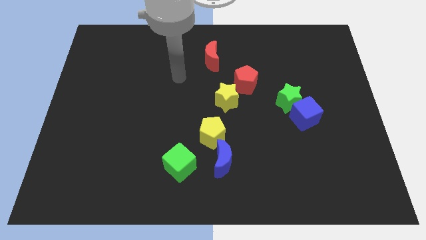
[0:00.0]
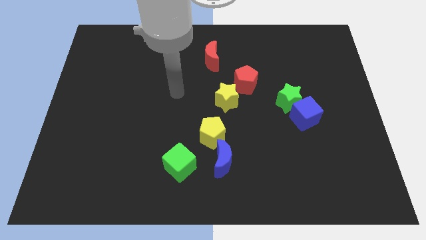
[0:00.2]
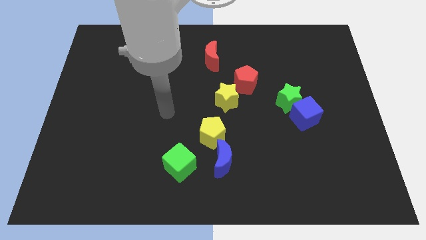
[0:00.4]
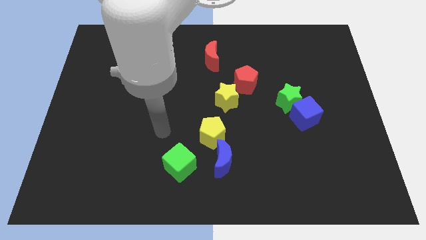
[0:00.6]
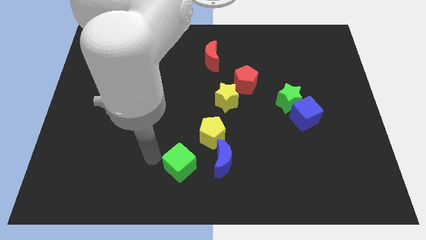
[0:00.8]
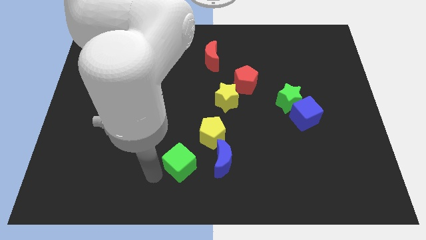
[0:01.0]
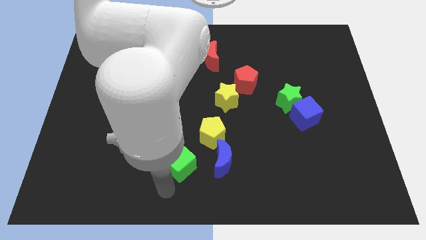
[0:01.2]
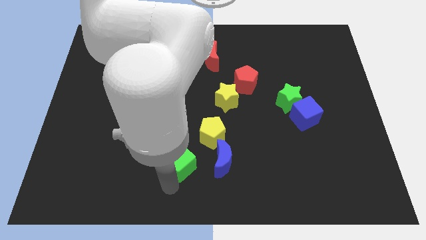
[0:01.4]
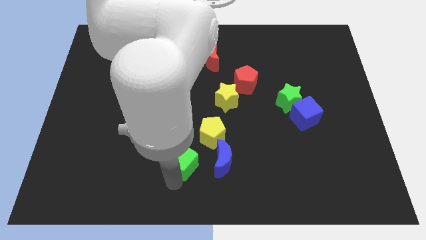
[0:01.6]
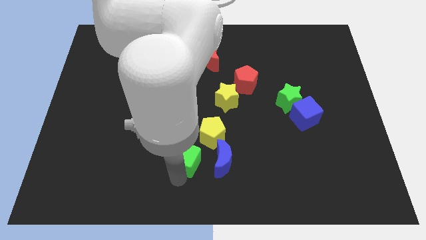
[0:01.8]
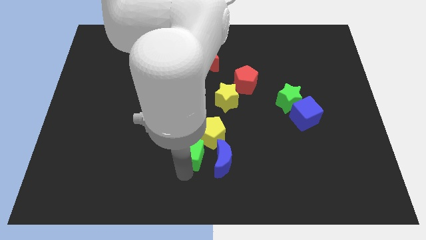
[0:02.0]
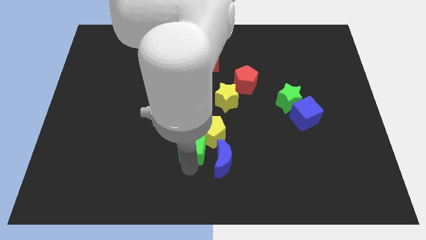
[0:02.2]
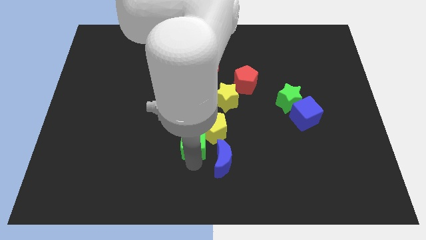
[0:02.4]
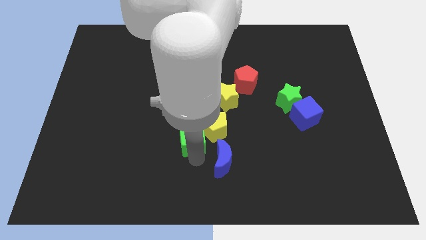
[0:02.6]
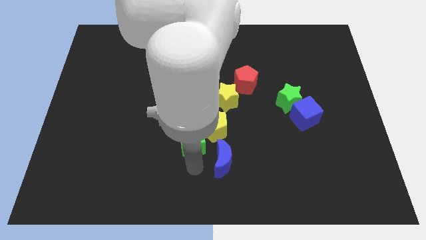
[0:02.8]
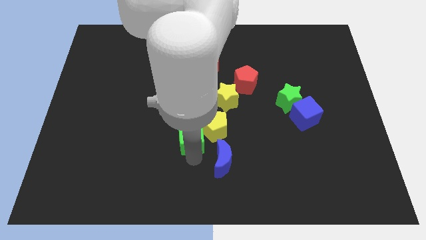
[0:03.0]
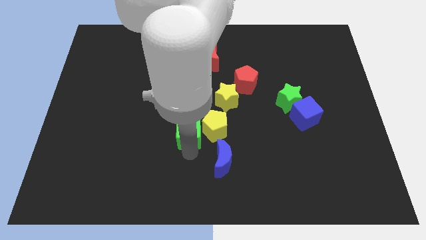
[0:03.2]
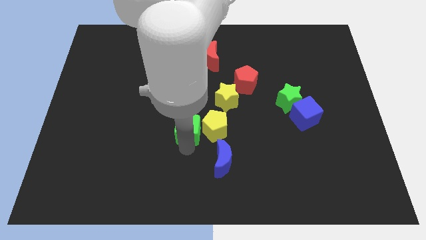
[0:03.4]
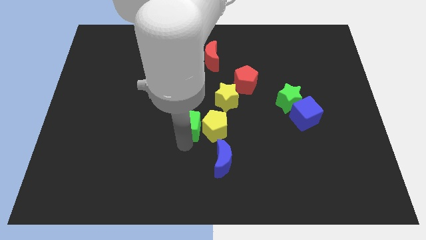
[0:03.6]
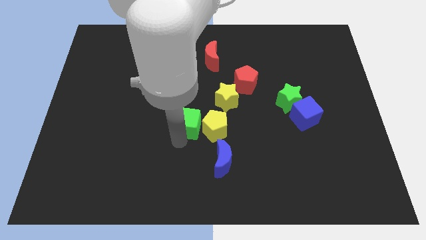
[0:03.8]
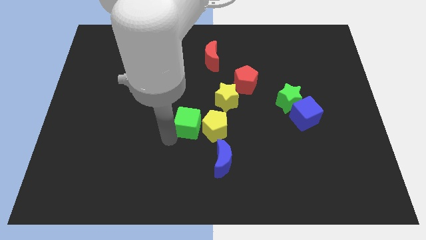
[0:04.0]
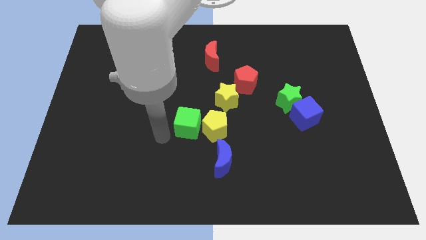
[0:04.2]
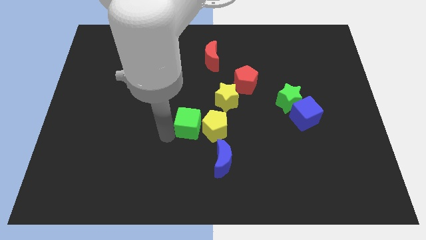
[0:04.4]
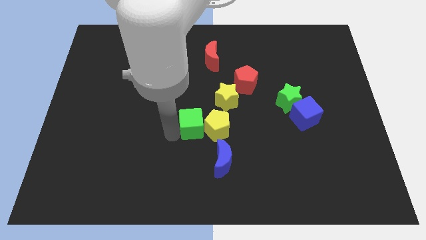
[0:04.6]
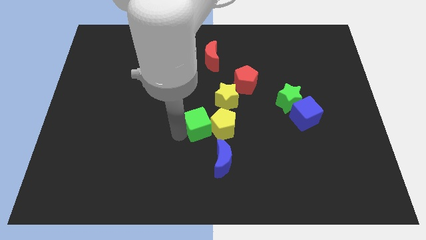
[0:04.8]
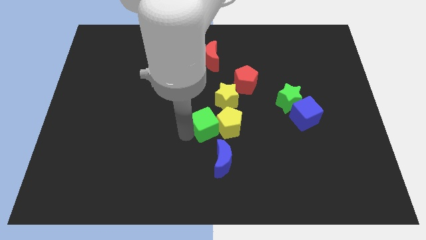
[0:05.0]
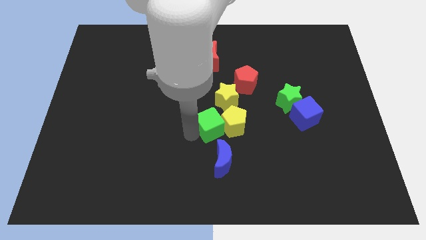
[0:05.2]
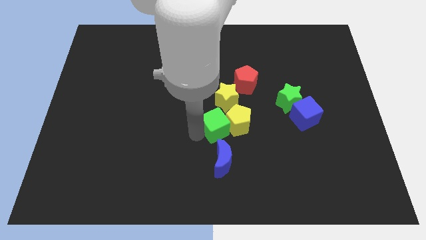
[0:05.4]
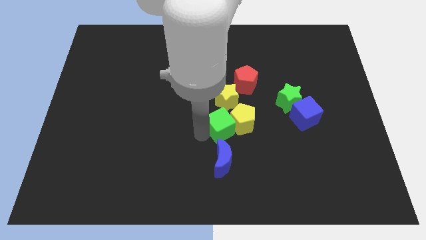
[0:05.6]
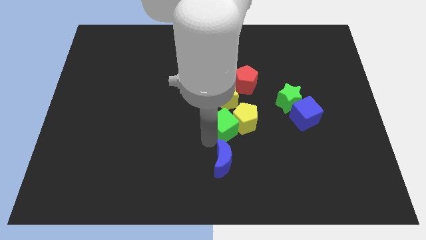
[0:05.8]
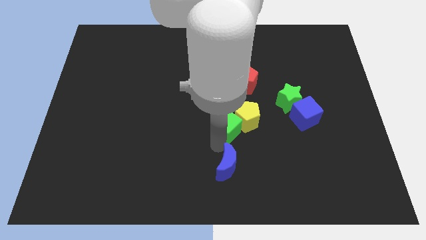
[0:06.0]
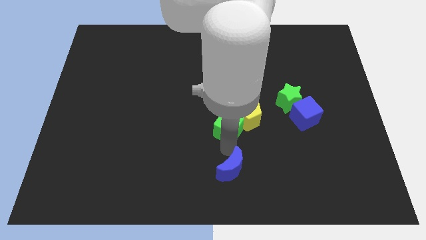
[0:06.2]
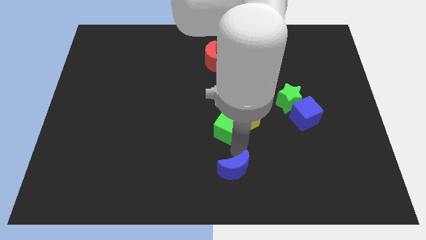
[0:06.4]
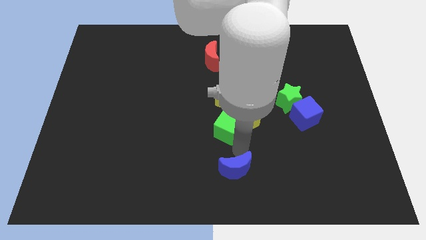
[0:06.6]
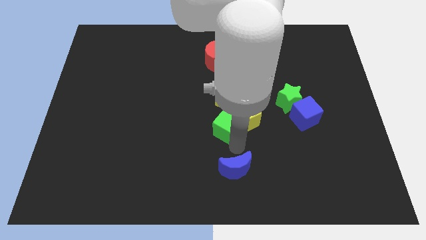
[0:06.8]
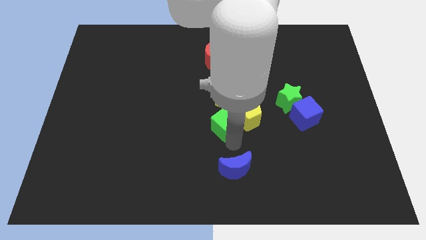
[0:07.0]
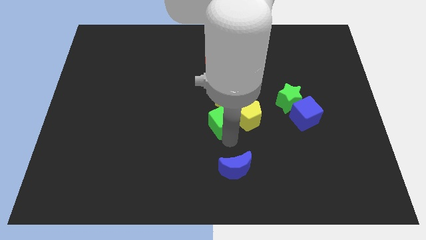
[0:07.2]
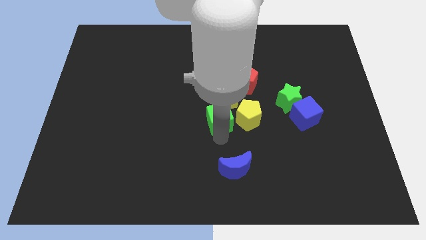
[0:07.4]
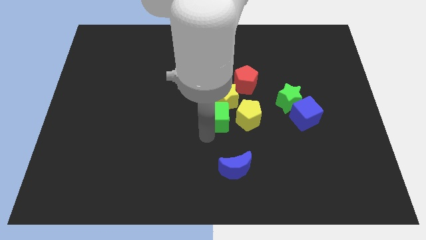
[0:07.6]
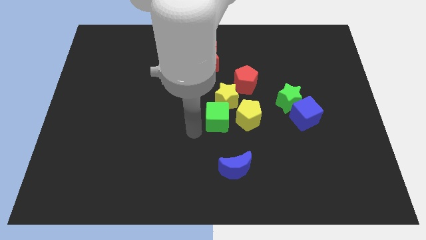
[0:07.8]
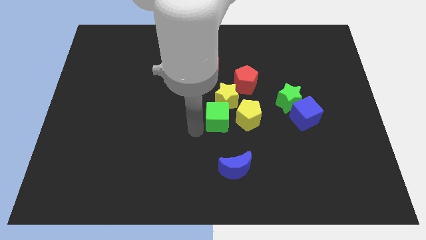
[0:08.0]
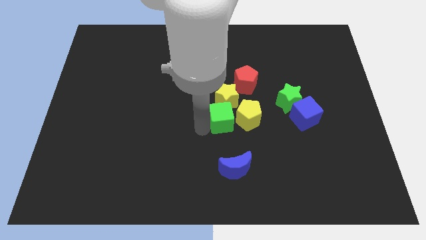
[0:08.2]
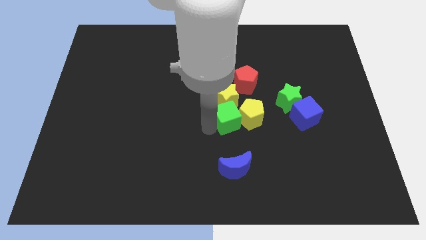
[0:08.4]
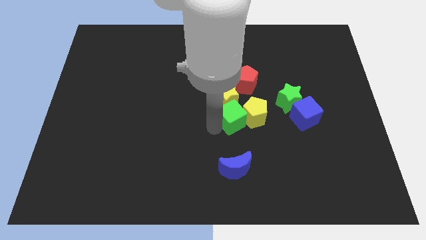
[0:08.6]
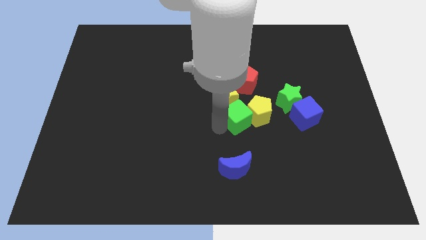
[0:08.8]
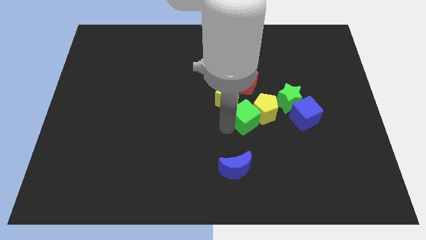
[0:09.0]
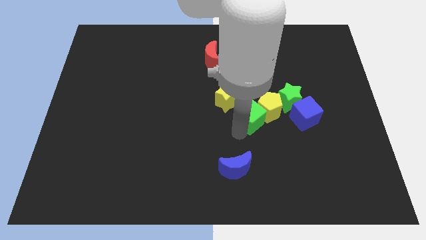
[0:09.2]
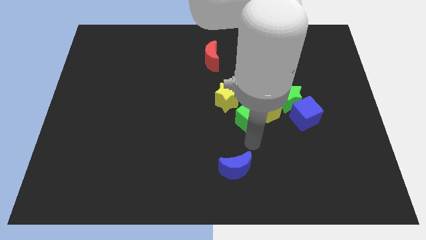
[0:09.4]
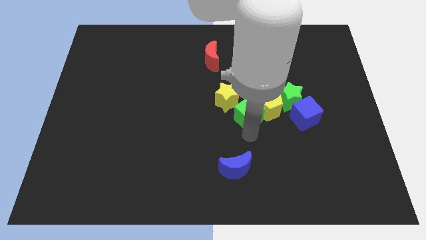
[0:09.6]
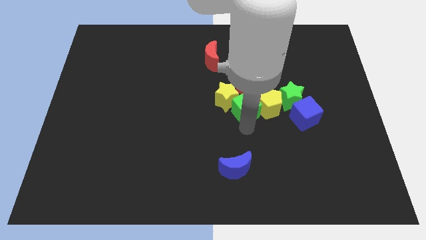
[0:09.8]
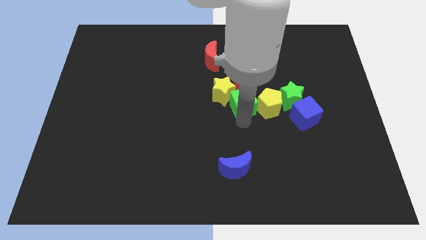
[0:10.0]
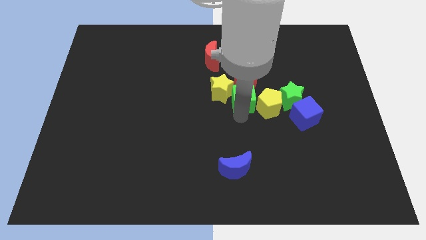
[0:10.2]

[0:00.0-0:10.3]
put the green cube to the red pentagon

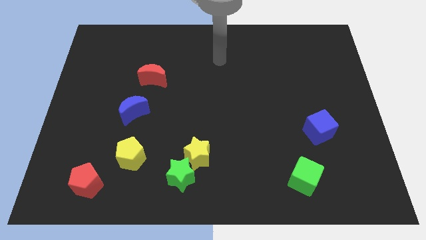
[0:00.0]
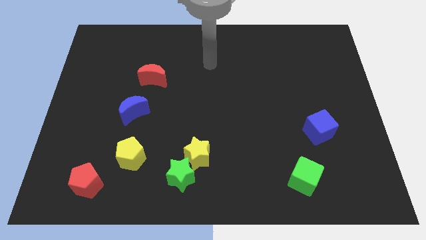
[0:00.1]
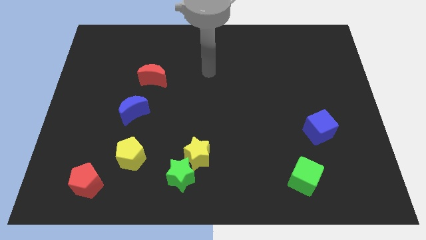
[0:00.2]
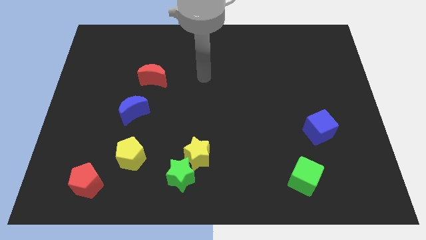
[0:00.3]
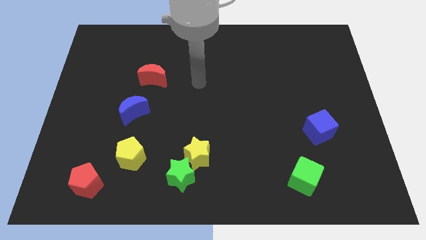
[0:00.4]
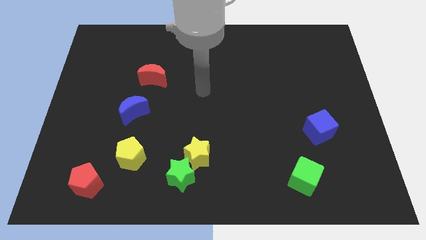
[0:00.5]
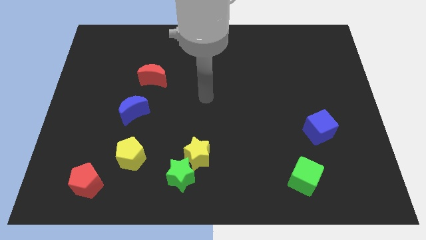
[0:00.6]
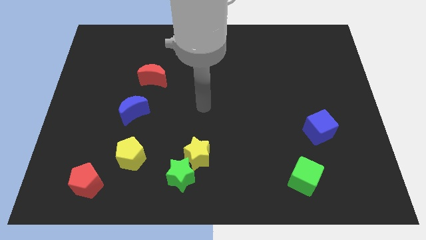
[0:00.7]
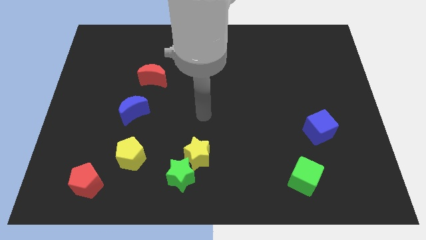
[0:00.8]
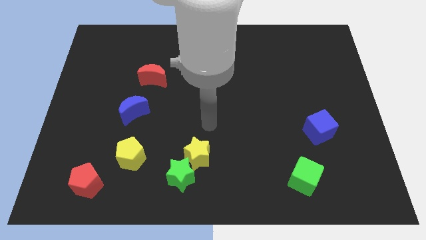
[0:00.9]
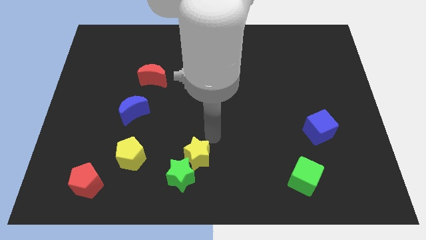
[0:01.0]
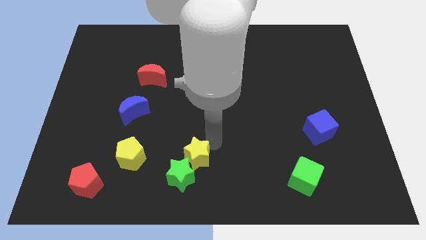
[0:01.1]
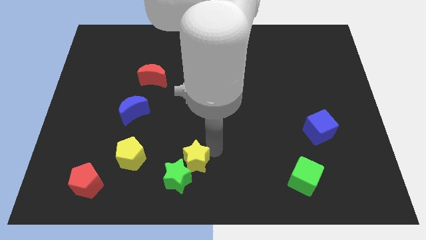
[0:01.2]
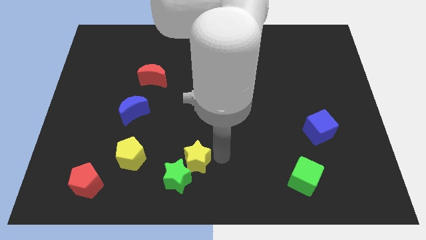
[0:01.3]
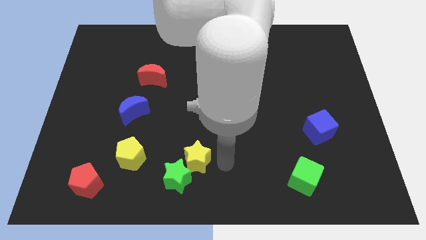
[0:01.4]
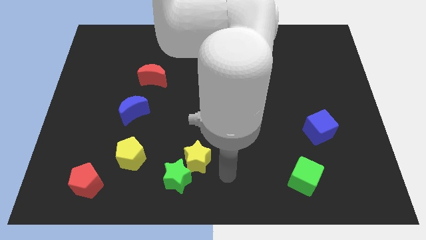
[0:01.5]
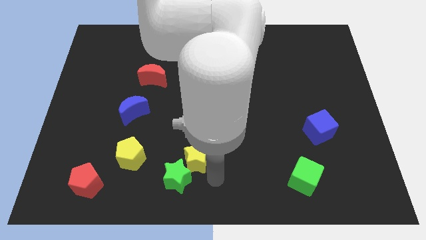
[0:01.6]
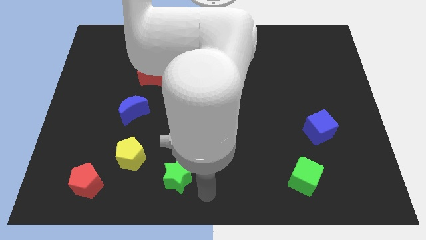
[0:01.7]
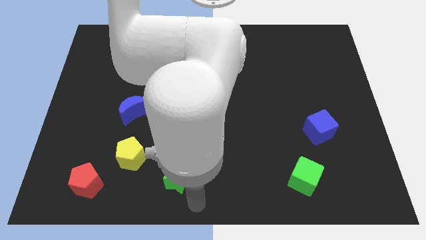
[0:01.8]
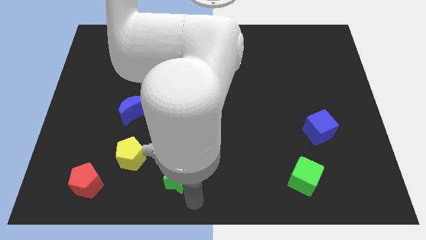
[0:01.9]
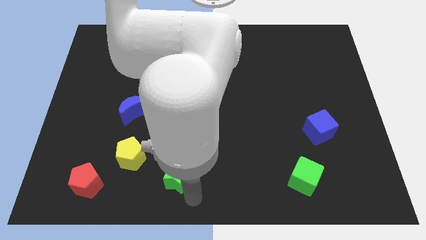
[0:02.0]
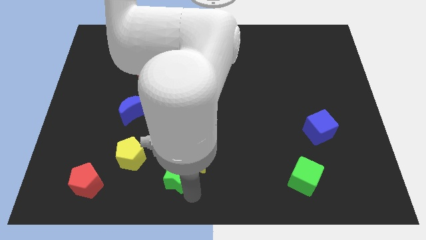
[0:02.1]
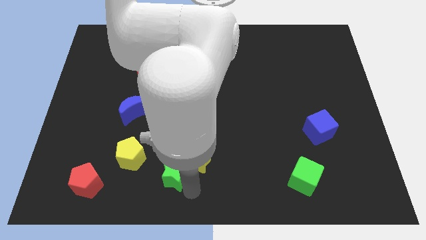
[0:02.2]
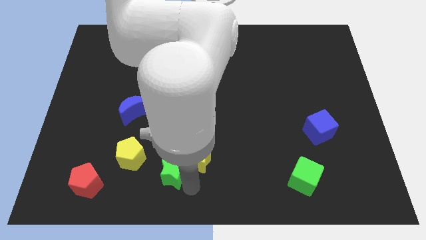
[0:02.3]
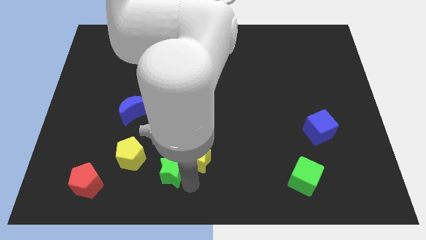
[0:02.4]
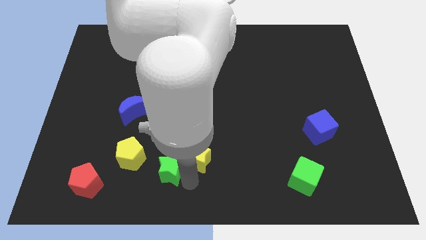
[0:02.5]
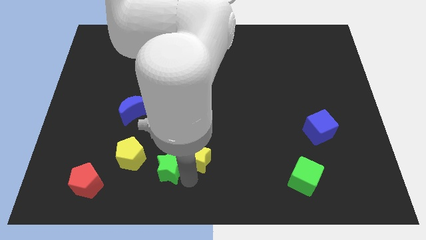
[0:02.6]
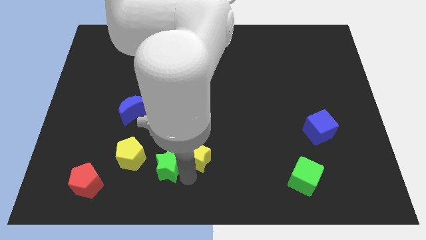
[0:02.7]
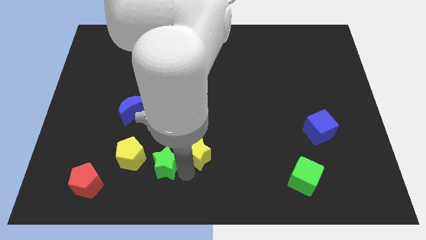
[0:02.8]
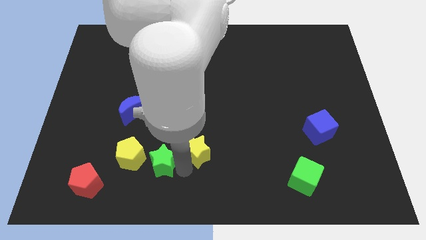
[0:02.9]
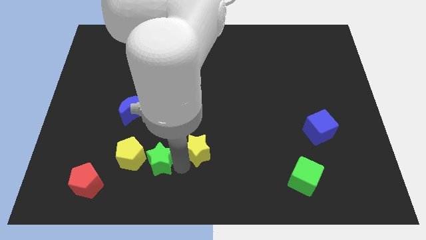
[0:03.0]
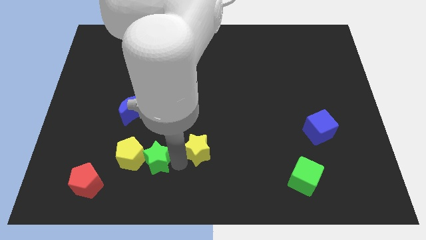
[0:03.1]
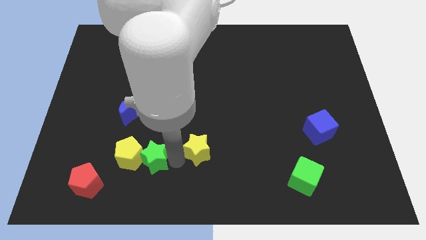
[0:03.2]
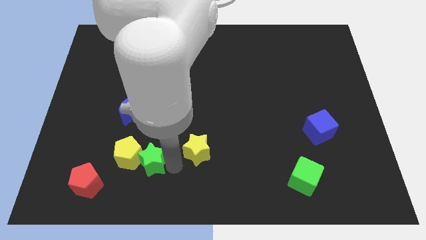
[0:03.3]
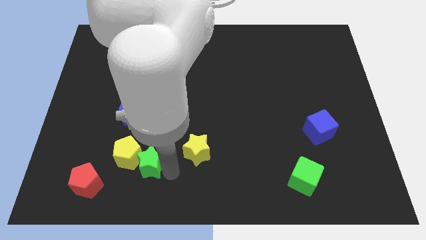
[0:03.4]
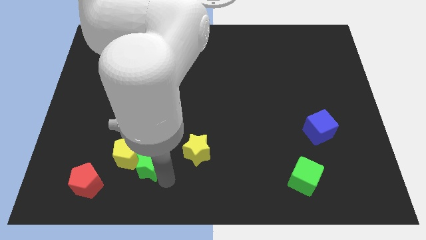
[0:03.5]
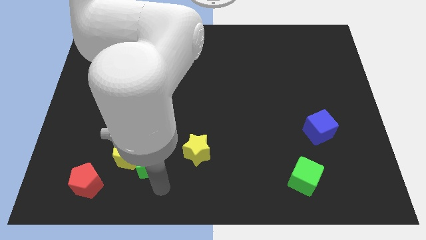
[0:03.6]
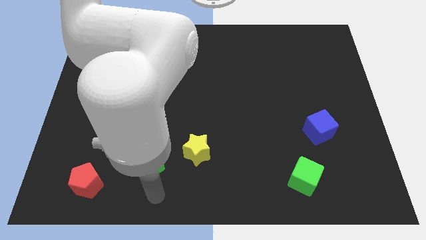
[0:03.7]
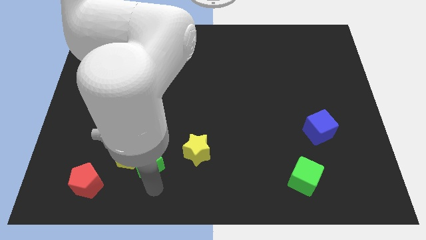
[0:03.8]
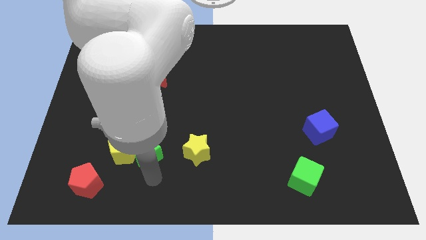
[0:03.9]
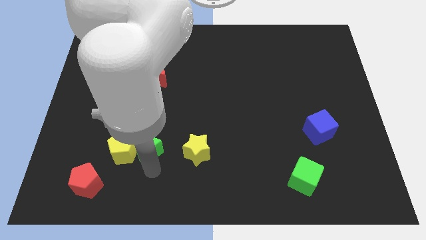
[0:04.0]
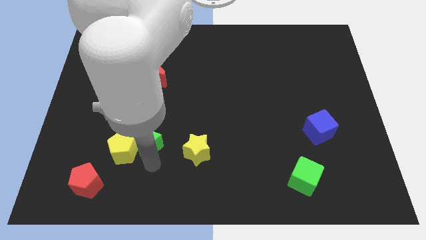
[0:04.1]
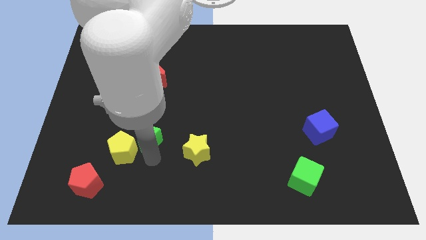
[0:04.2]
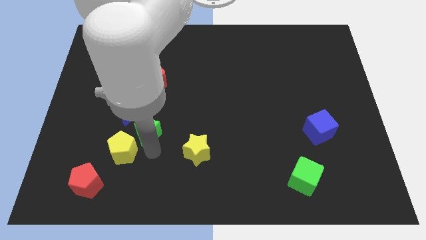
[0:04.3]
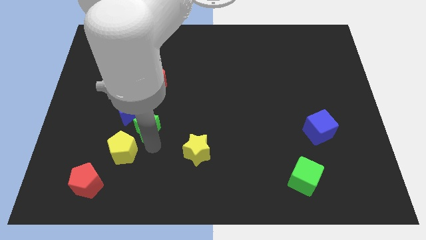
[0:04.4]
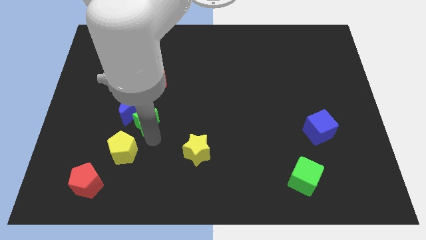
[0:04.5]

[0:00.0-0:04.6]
push the green star towards the blue moon
